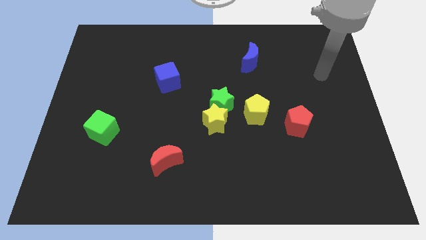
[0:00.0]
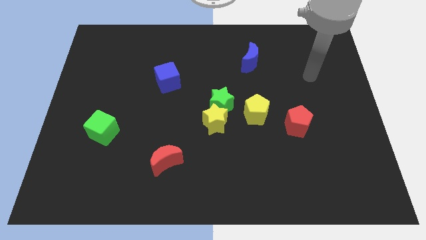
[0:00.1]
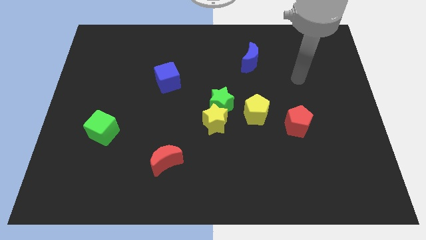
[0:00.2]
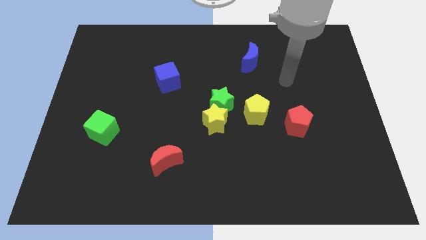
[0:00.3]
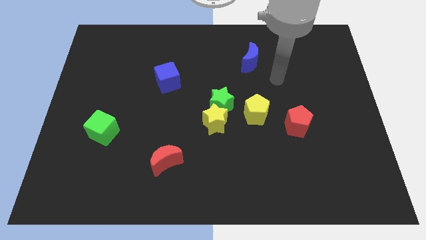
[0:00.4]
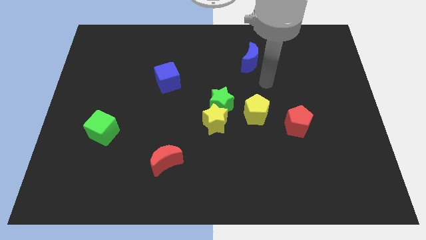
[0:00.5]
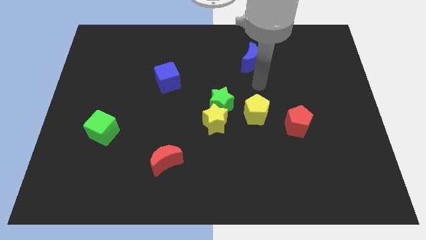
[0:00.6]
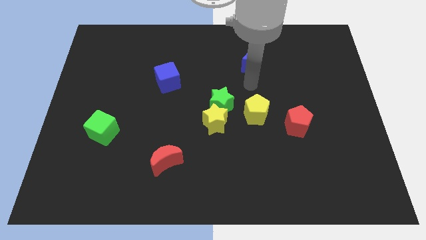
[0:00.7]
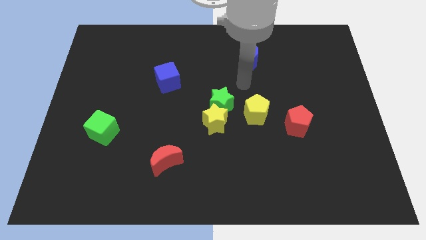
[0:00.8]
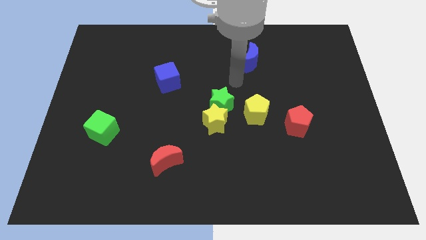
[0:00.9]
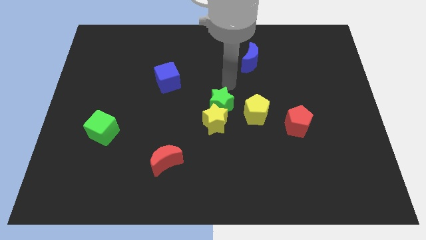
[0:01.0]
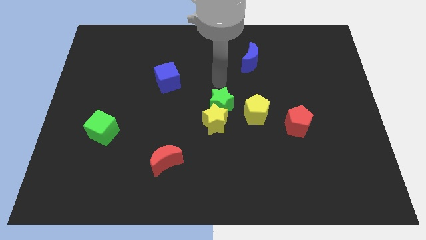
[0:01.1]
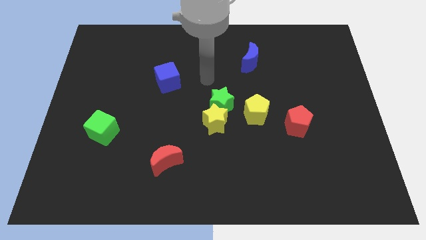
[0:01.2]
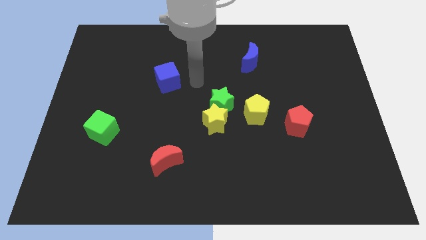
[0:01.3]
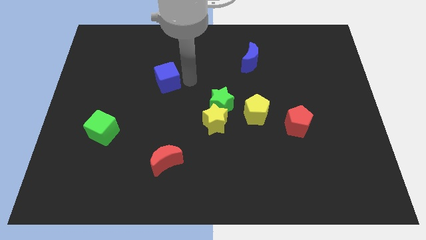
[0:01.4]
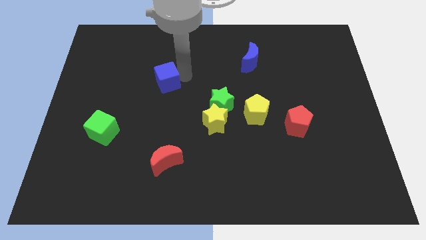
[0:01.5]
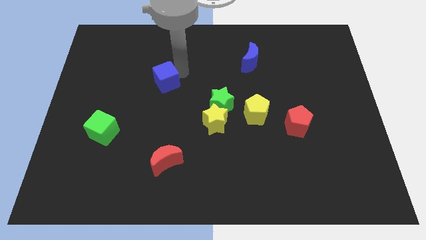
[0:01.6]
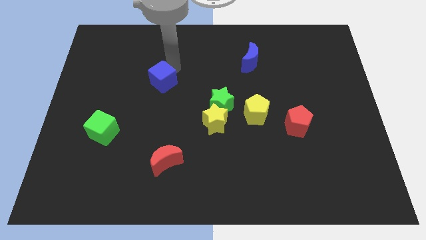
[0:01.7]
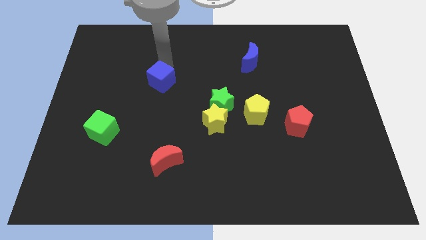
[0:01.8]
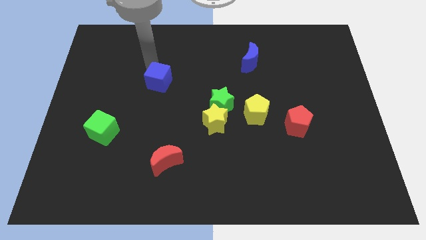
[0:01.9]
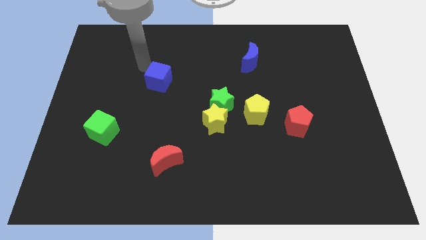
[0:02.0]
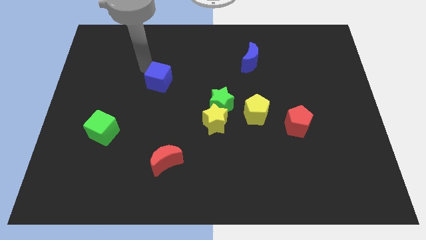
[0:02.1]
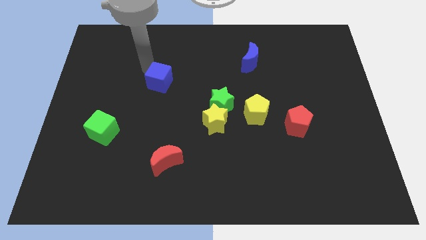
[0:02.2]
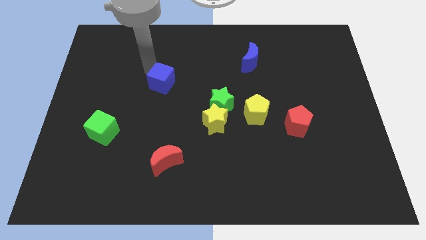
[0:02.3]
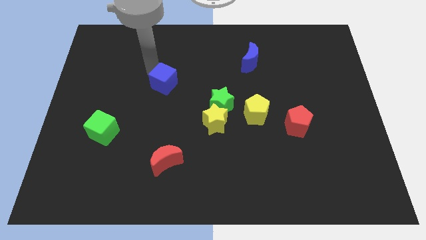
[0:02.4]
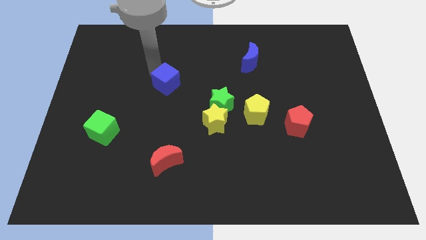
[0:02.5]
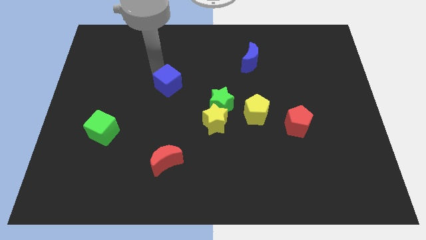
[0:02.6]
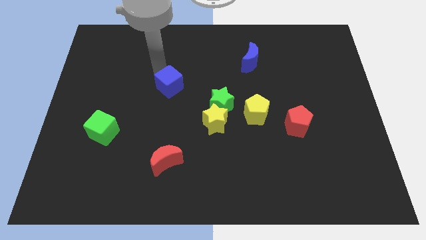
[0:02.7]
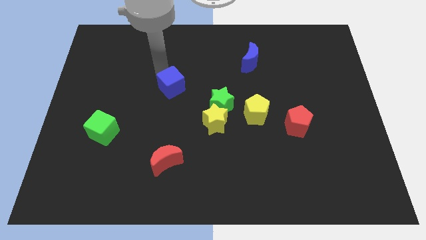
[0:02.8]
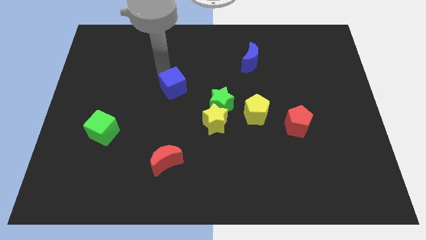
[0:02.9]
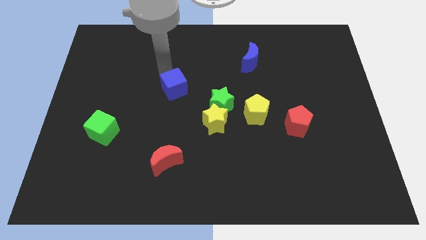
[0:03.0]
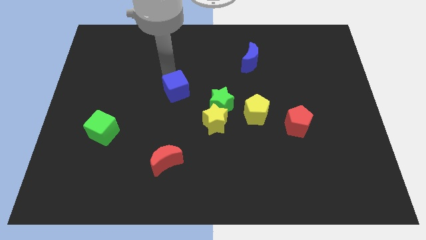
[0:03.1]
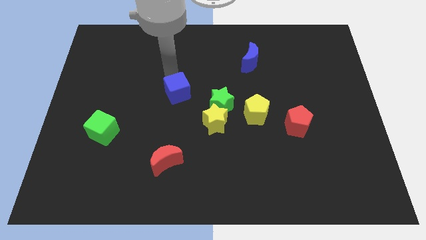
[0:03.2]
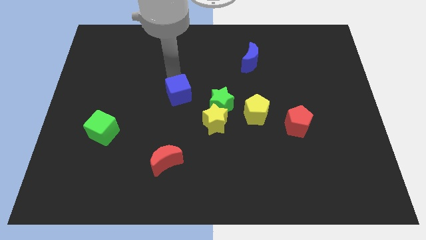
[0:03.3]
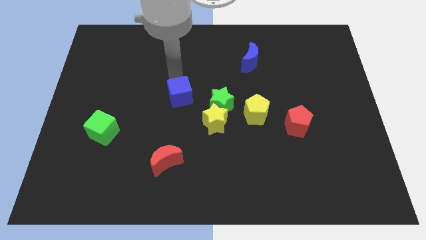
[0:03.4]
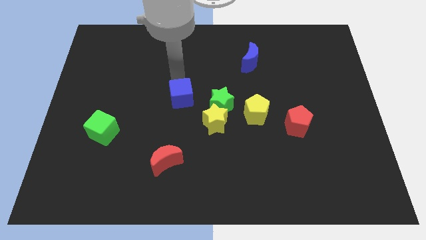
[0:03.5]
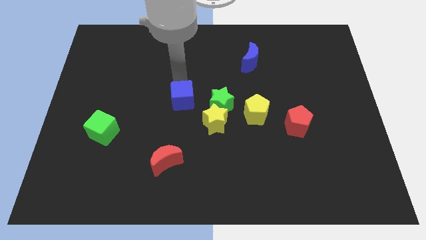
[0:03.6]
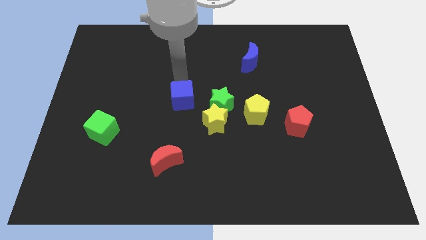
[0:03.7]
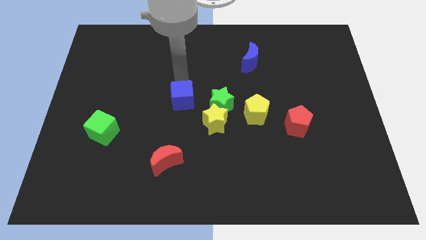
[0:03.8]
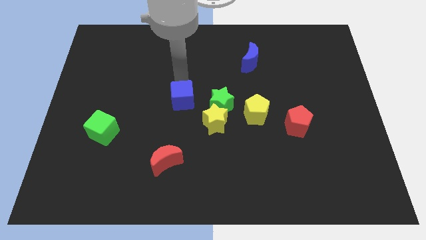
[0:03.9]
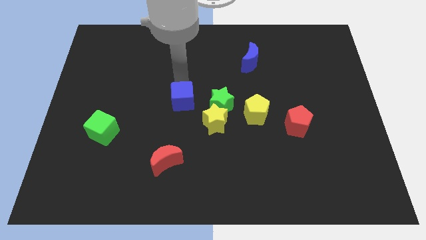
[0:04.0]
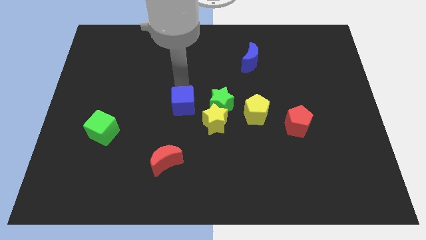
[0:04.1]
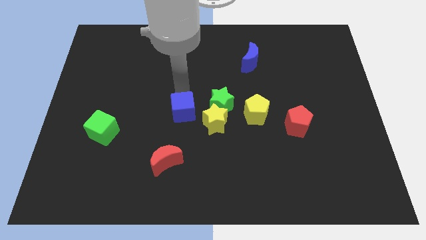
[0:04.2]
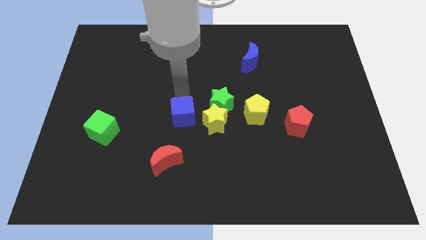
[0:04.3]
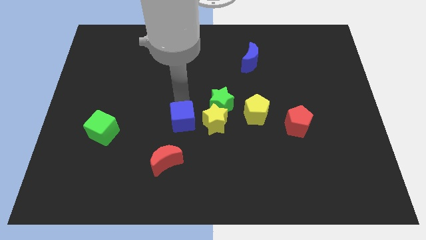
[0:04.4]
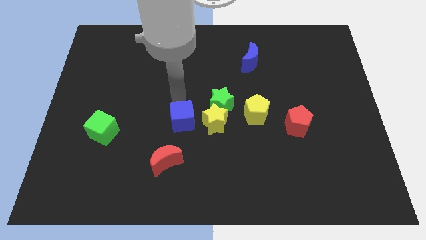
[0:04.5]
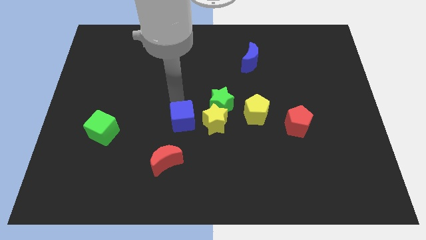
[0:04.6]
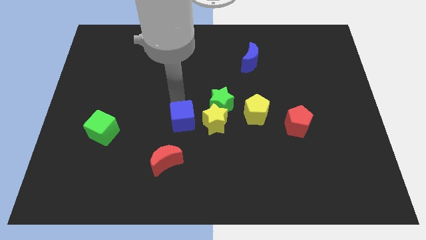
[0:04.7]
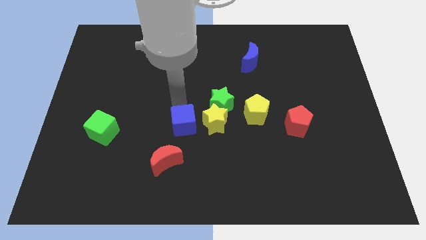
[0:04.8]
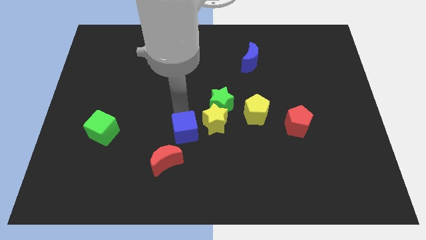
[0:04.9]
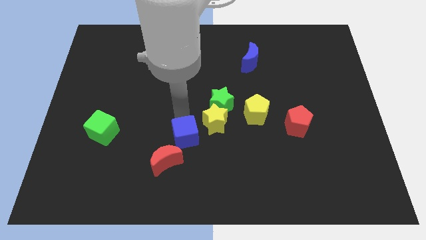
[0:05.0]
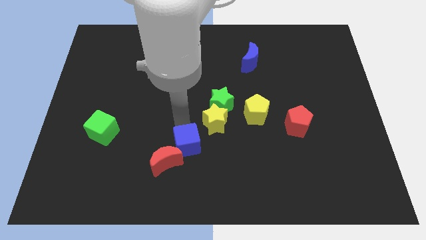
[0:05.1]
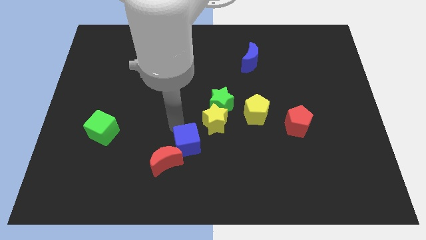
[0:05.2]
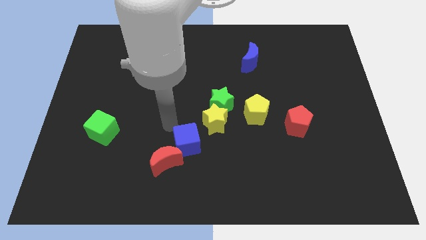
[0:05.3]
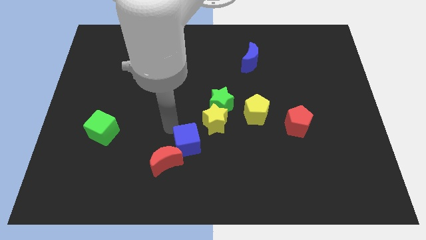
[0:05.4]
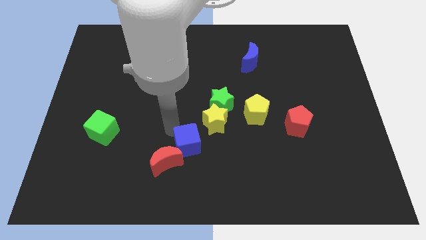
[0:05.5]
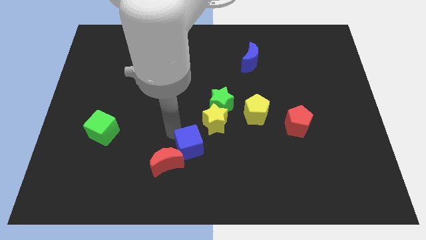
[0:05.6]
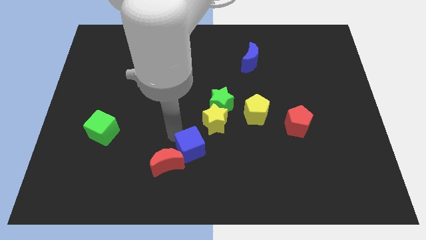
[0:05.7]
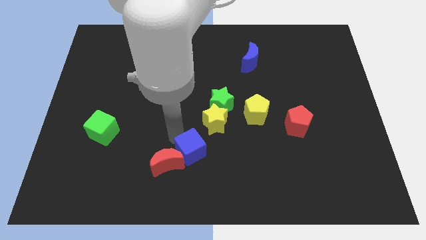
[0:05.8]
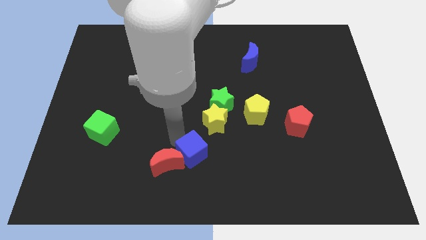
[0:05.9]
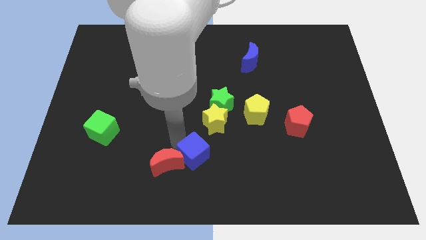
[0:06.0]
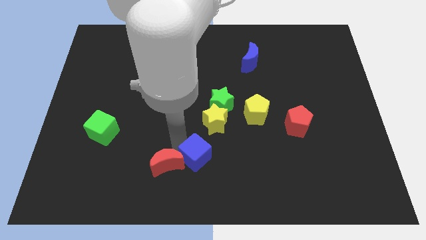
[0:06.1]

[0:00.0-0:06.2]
push the blue cube to the bottom
